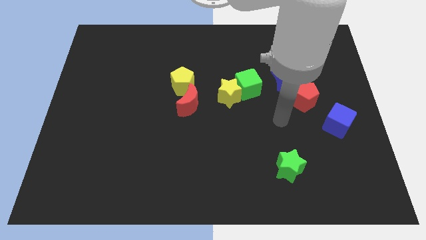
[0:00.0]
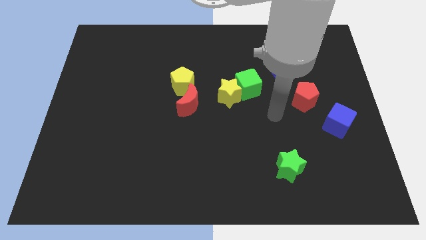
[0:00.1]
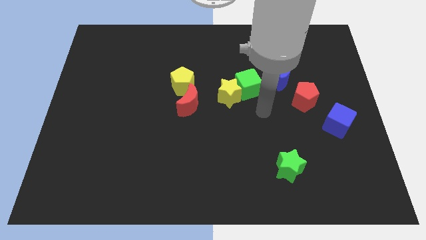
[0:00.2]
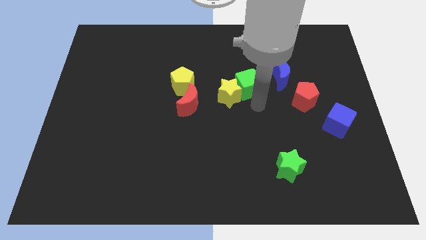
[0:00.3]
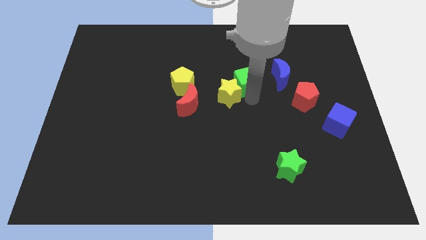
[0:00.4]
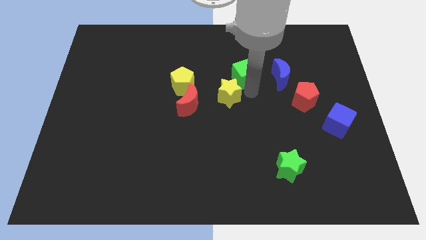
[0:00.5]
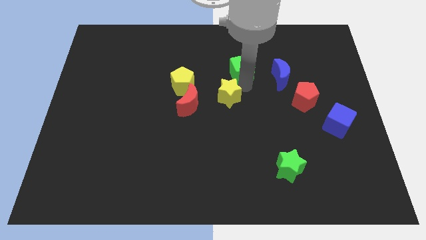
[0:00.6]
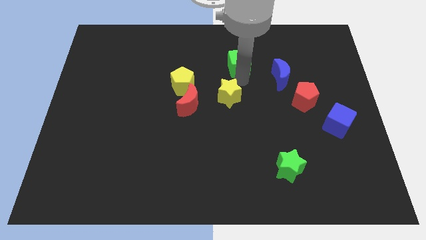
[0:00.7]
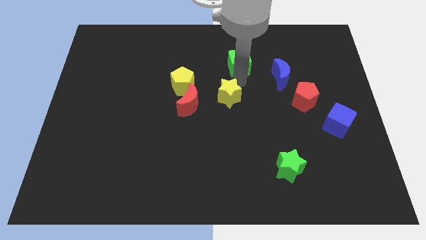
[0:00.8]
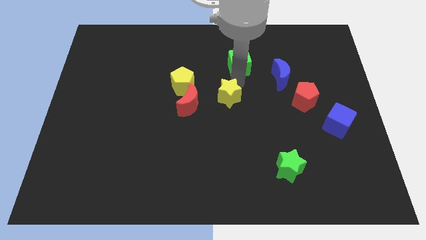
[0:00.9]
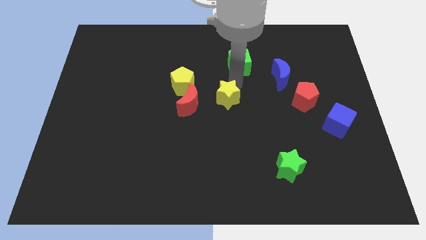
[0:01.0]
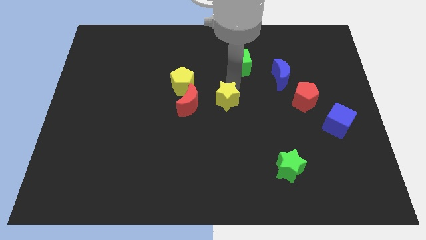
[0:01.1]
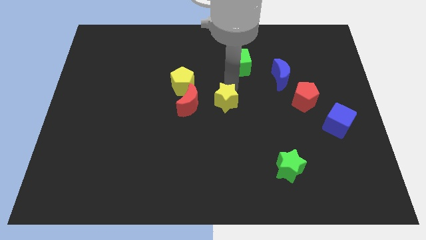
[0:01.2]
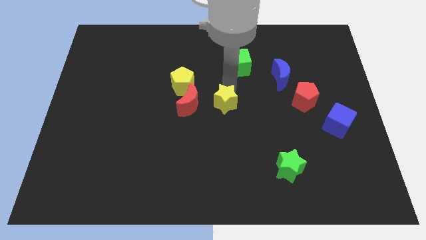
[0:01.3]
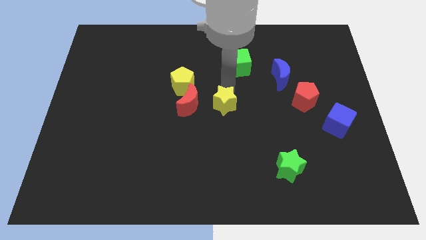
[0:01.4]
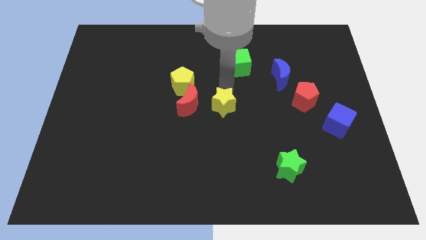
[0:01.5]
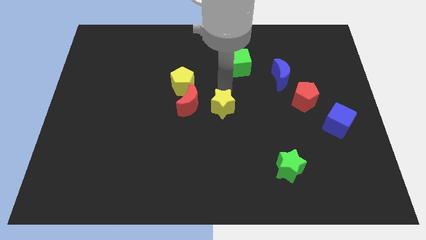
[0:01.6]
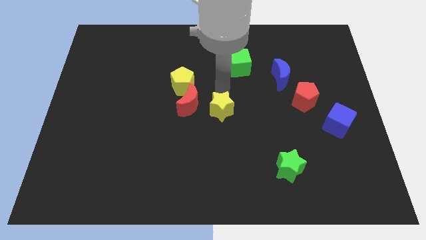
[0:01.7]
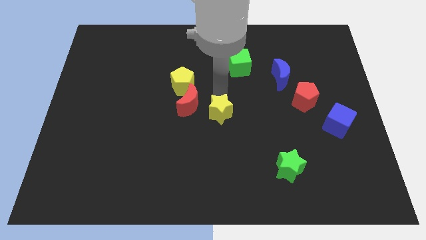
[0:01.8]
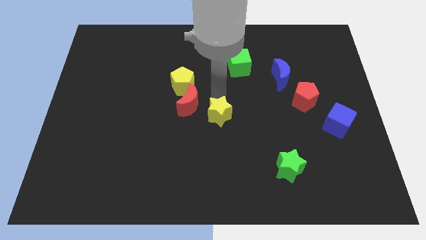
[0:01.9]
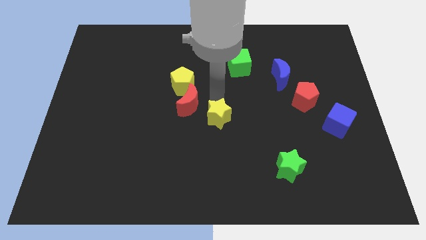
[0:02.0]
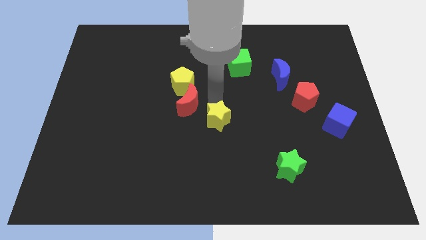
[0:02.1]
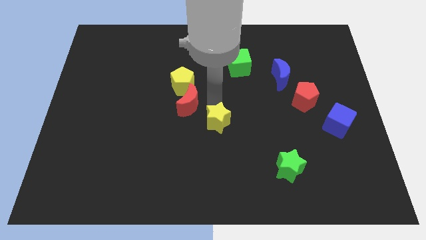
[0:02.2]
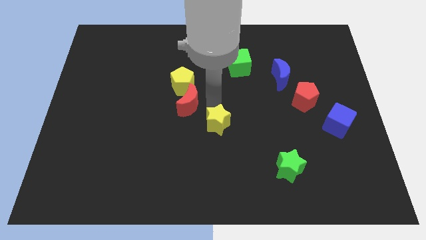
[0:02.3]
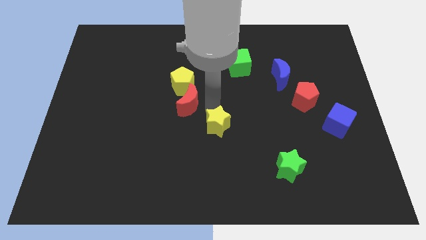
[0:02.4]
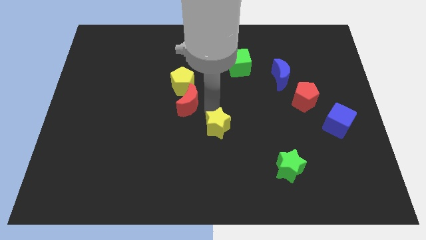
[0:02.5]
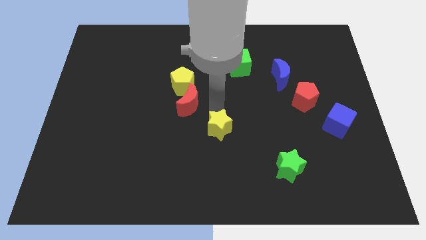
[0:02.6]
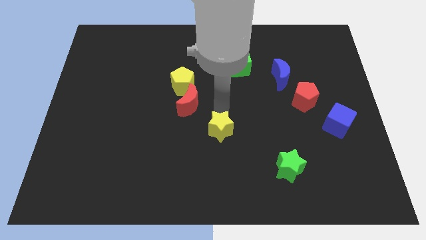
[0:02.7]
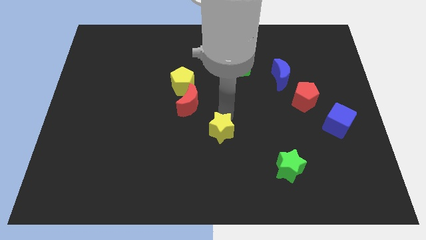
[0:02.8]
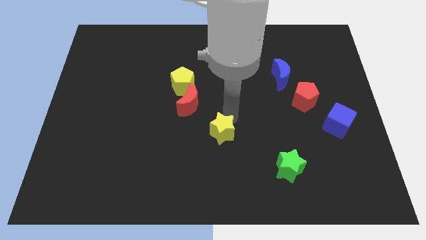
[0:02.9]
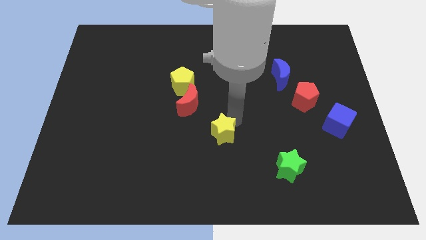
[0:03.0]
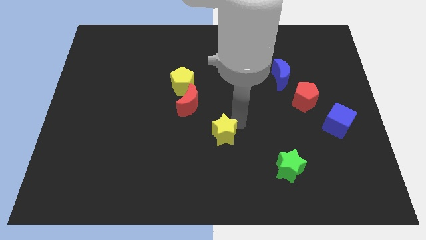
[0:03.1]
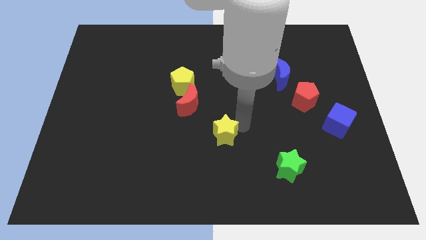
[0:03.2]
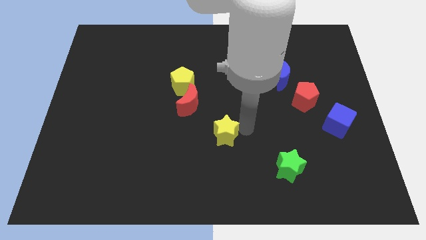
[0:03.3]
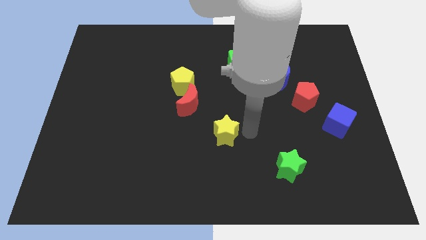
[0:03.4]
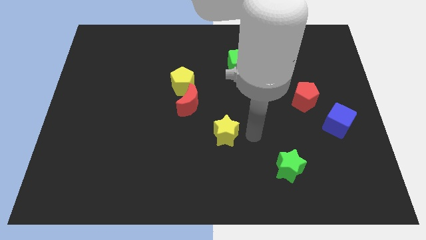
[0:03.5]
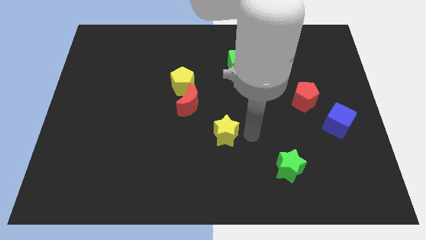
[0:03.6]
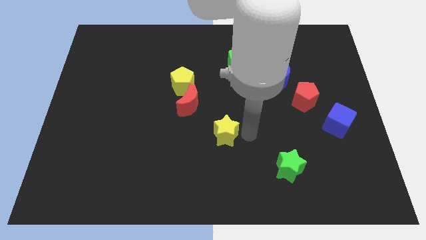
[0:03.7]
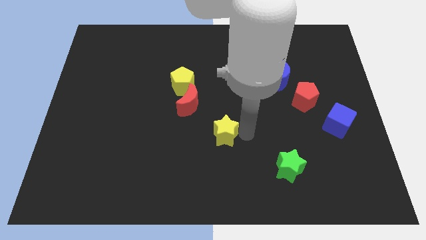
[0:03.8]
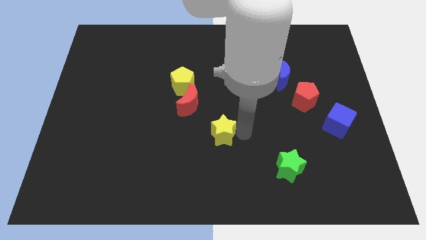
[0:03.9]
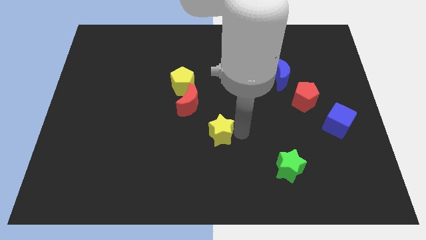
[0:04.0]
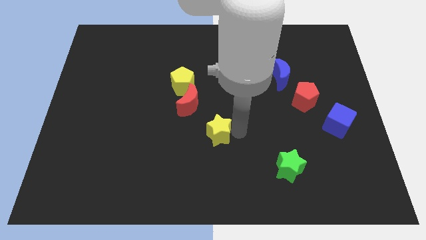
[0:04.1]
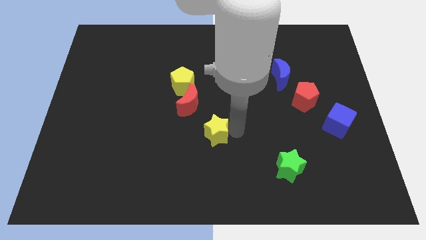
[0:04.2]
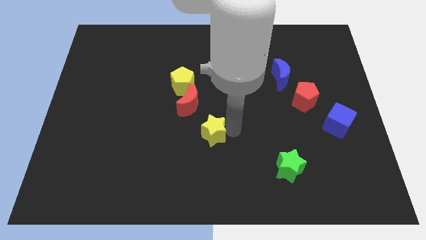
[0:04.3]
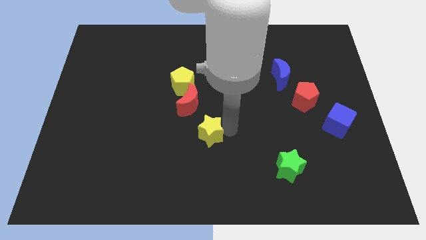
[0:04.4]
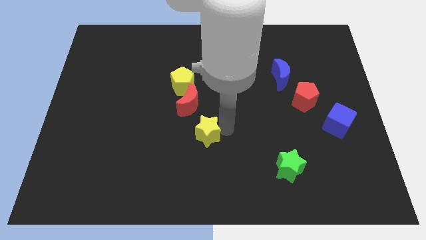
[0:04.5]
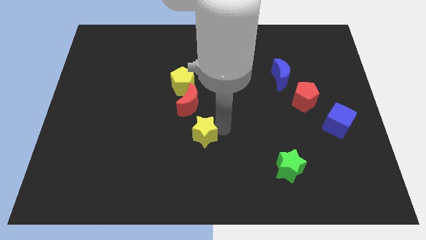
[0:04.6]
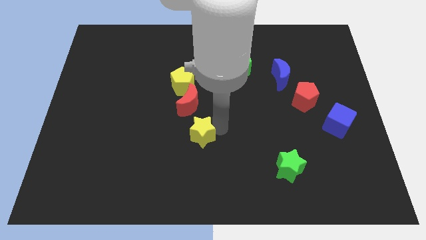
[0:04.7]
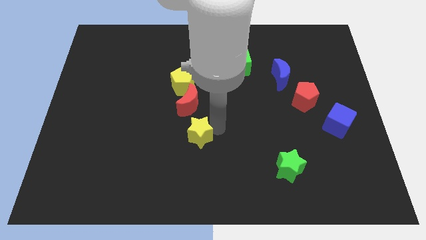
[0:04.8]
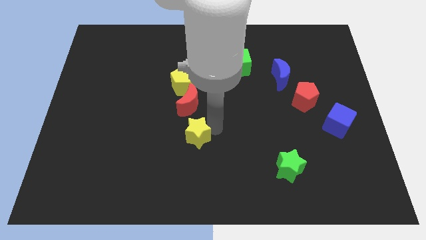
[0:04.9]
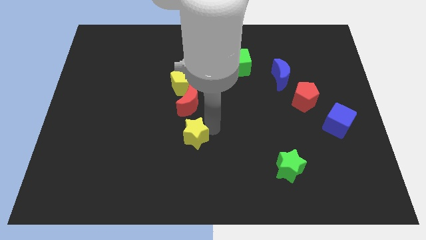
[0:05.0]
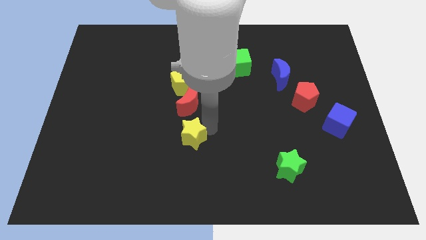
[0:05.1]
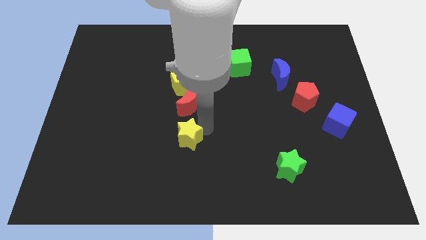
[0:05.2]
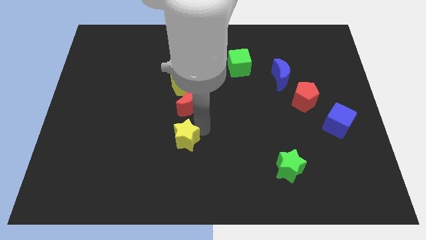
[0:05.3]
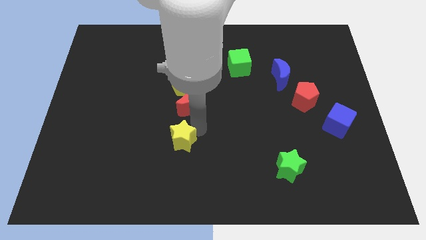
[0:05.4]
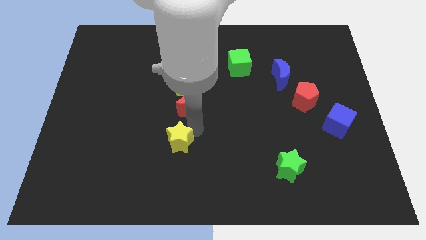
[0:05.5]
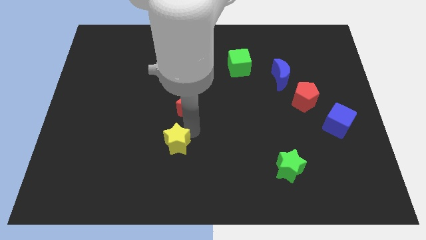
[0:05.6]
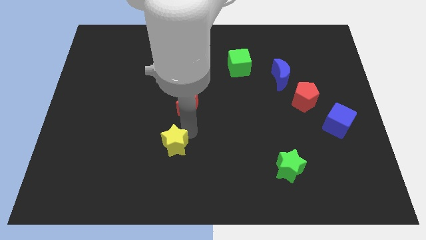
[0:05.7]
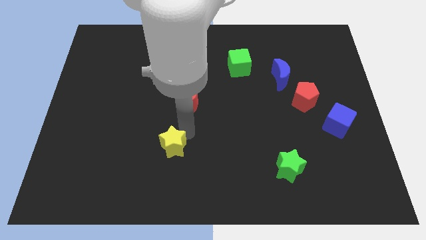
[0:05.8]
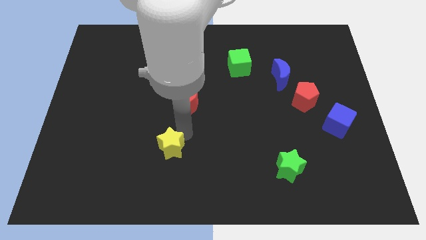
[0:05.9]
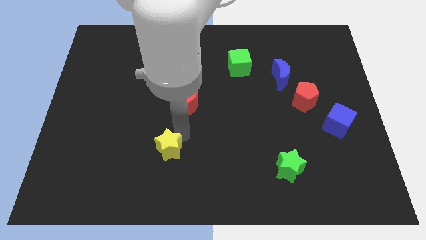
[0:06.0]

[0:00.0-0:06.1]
move the yellow star downwards and to the left diagonally

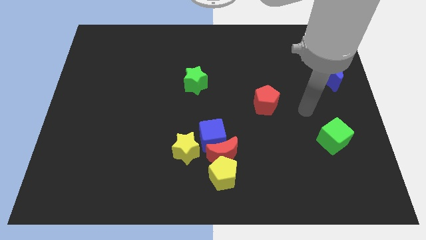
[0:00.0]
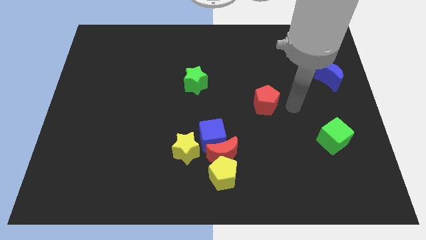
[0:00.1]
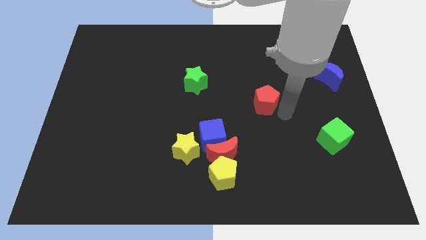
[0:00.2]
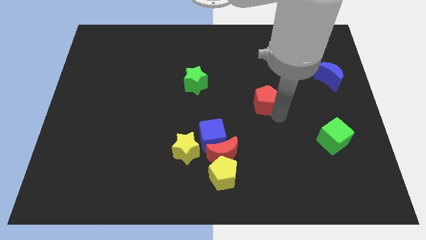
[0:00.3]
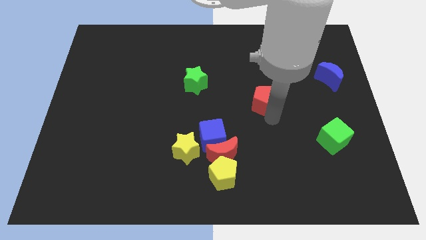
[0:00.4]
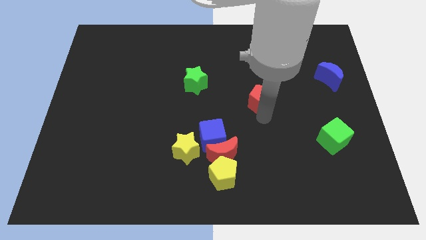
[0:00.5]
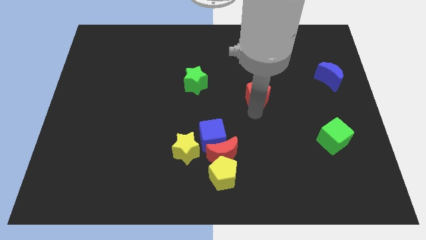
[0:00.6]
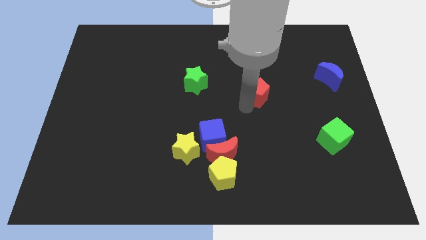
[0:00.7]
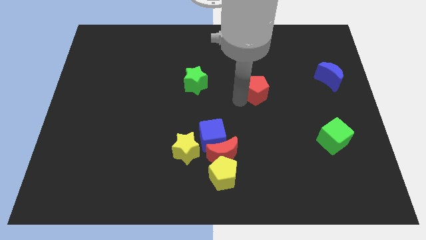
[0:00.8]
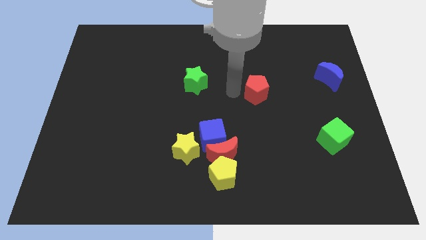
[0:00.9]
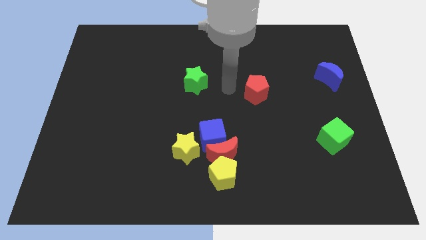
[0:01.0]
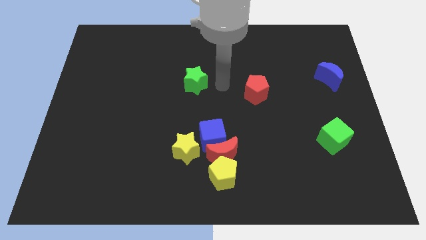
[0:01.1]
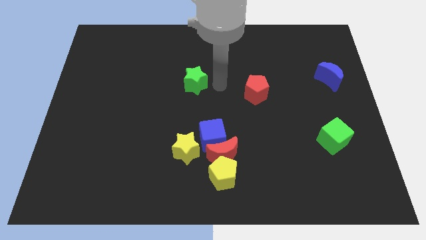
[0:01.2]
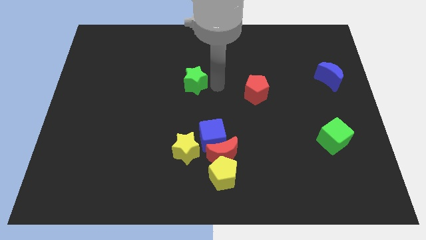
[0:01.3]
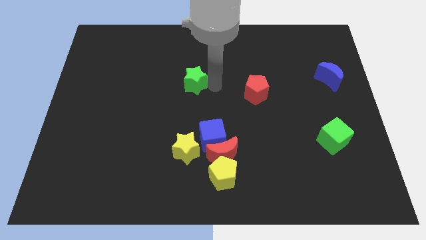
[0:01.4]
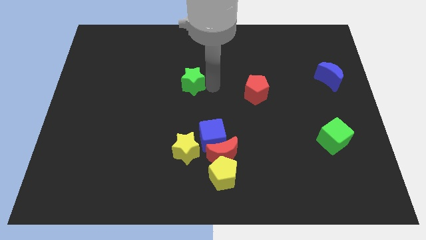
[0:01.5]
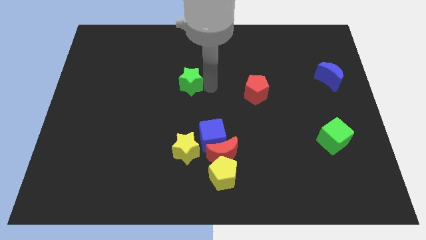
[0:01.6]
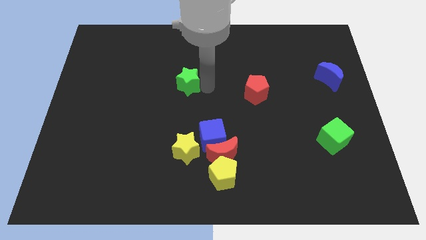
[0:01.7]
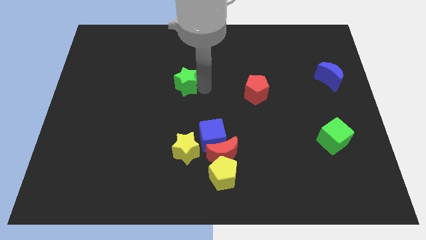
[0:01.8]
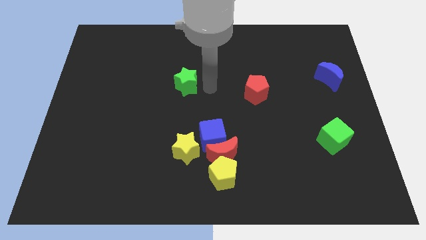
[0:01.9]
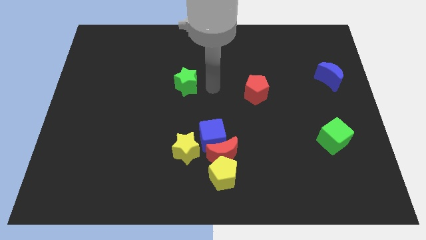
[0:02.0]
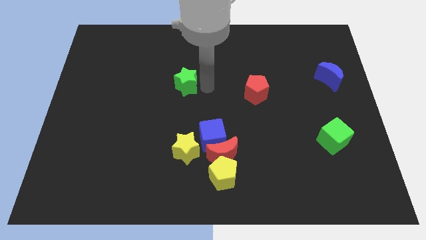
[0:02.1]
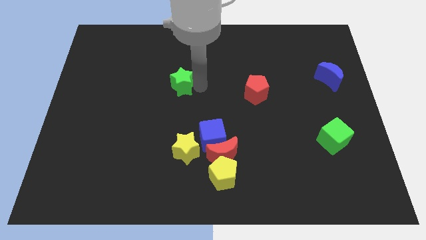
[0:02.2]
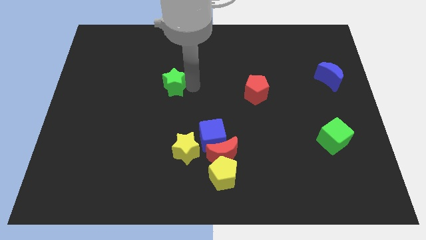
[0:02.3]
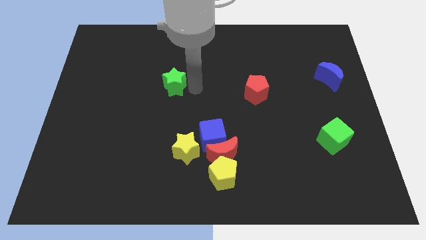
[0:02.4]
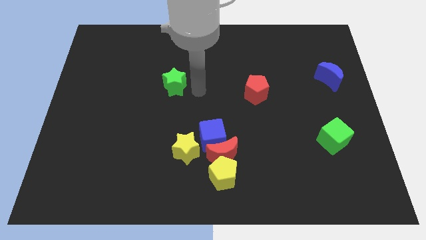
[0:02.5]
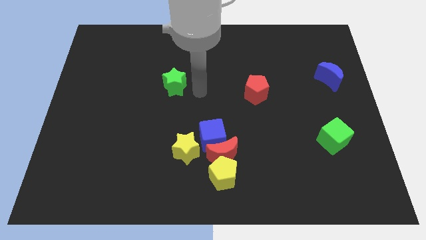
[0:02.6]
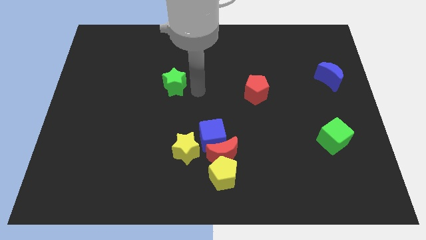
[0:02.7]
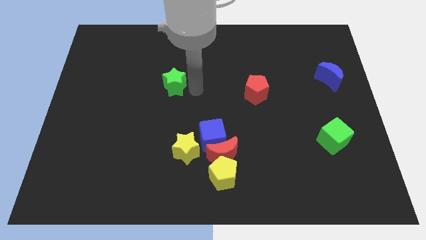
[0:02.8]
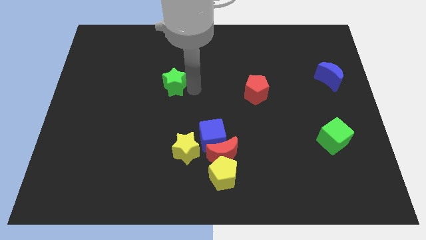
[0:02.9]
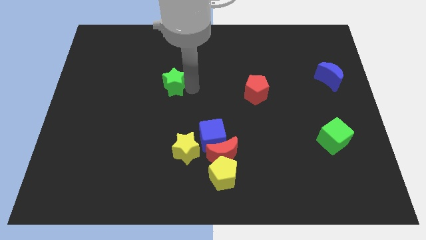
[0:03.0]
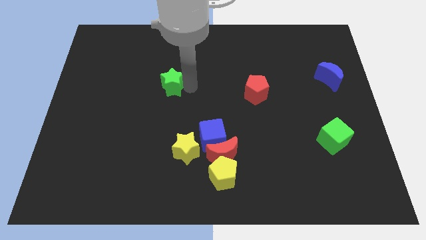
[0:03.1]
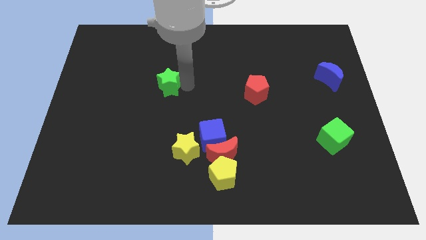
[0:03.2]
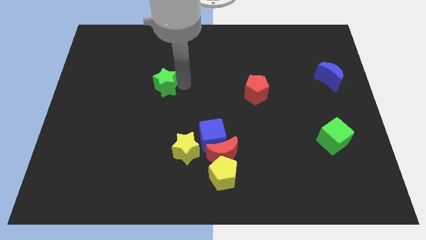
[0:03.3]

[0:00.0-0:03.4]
move the green star a bit to the left
